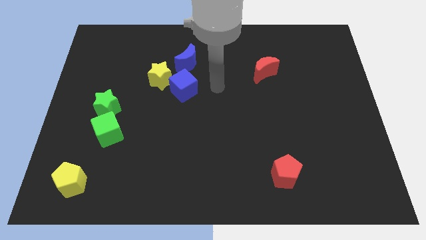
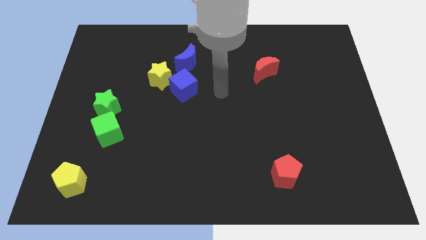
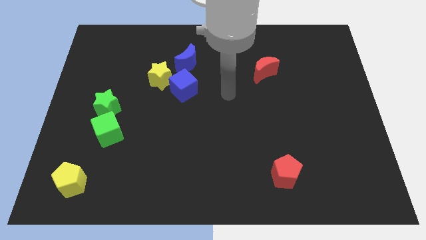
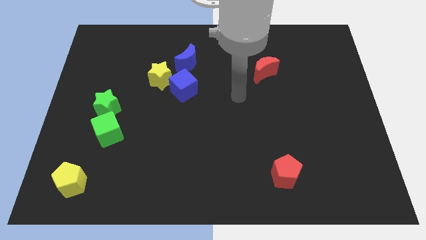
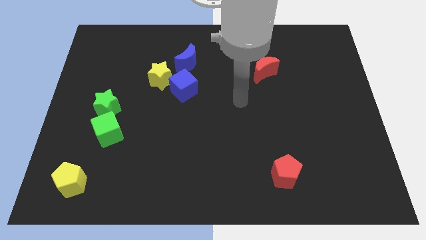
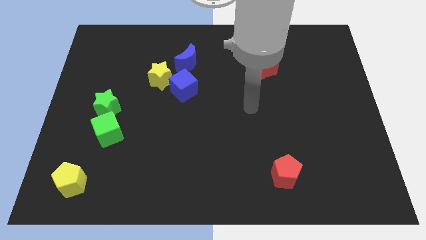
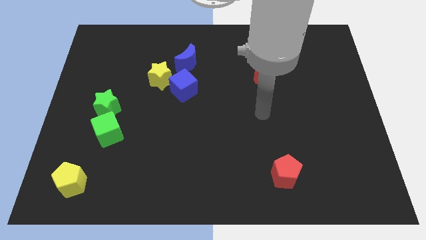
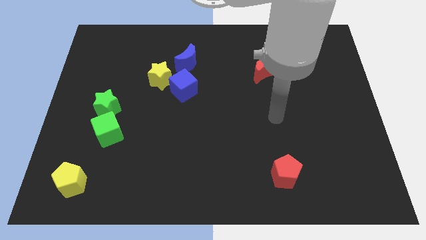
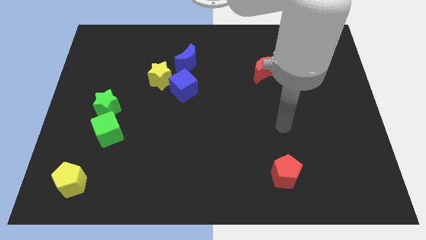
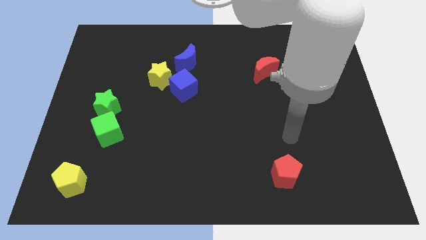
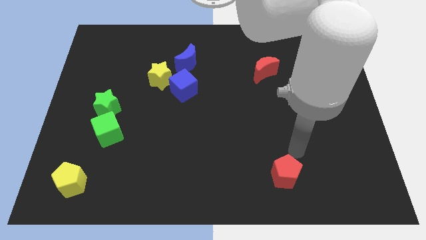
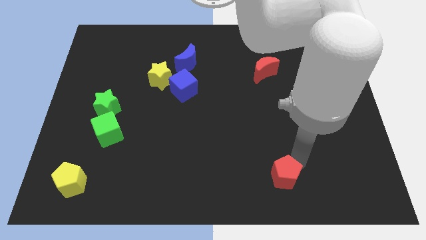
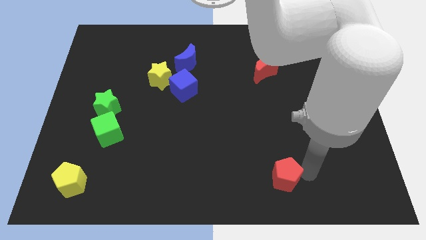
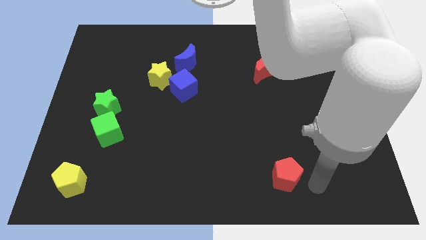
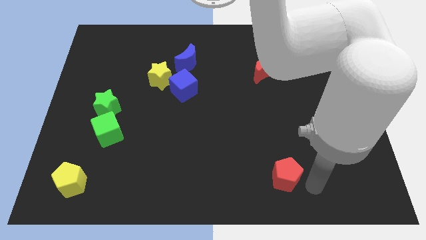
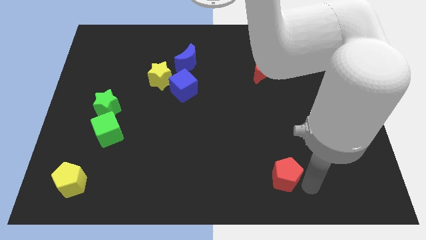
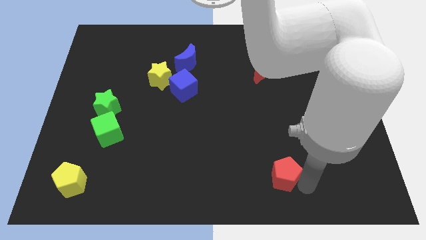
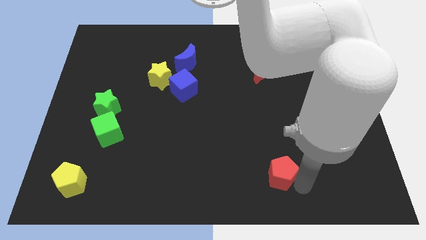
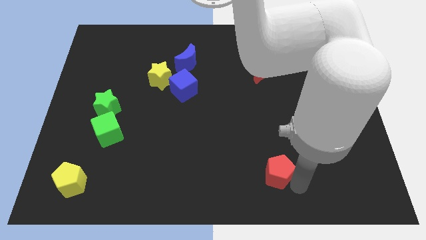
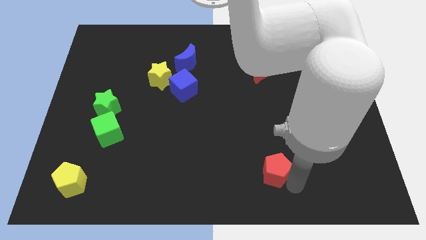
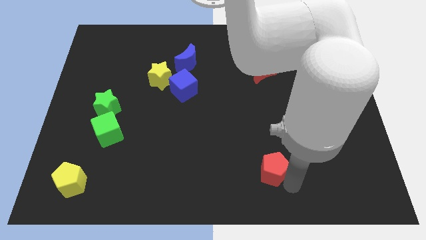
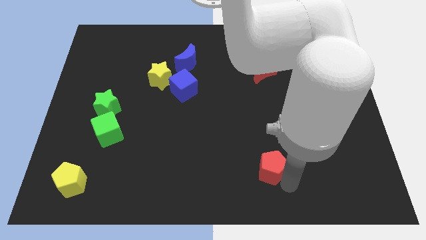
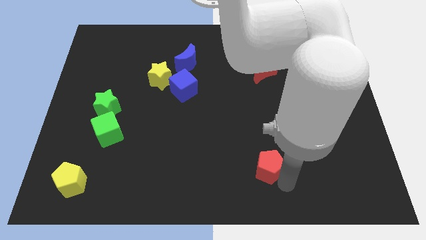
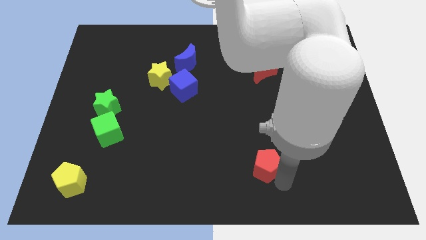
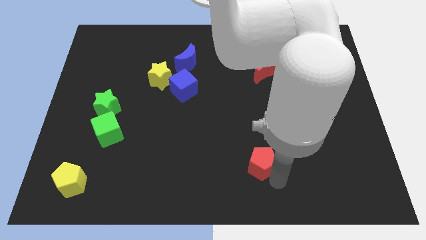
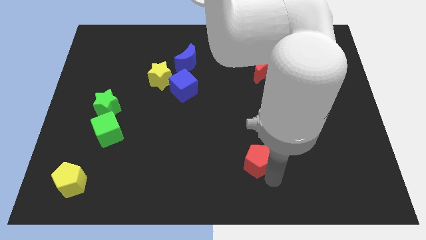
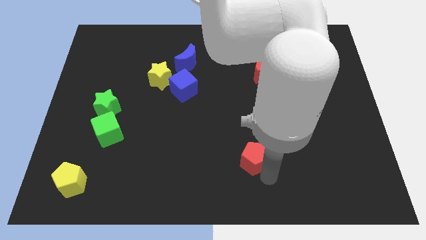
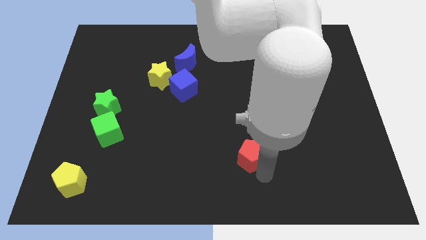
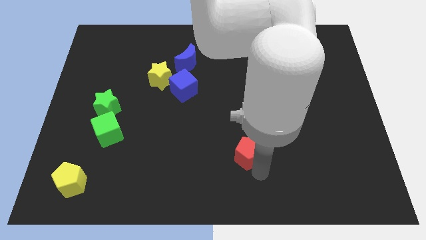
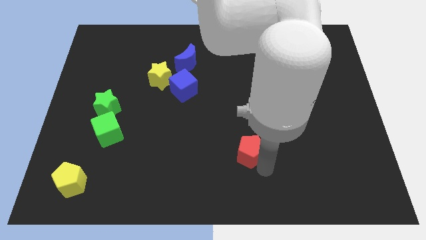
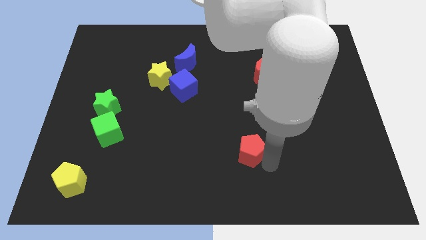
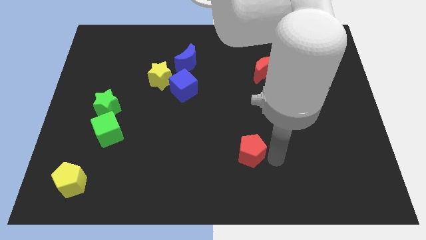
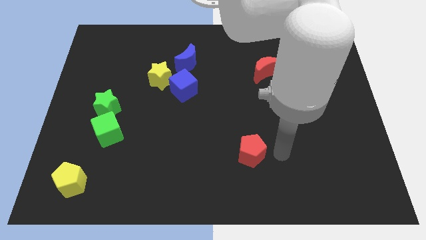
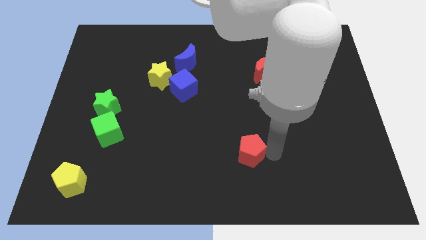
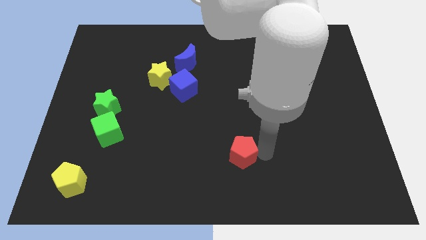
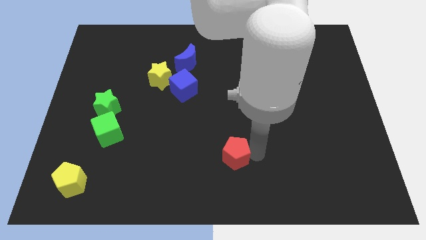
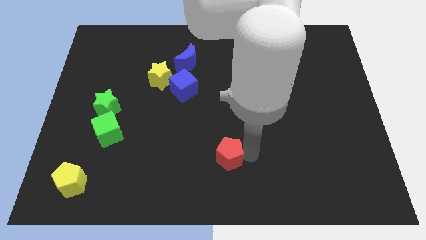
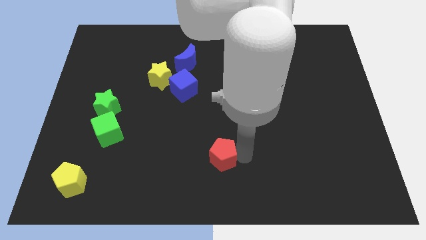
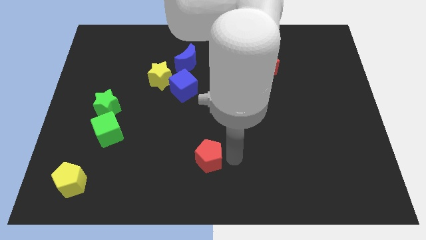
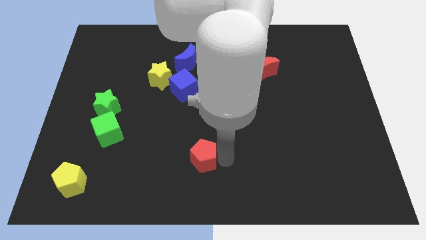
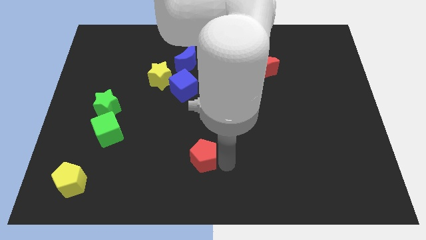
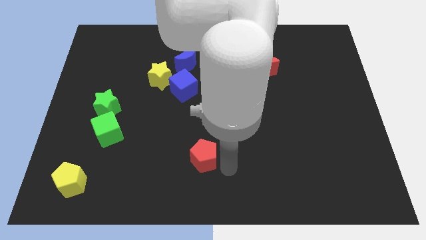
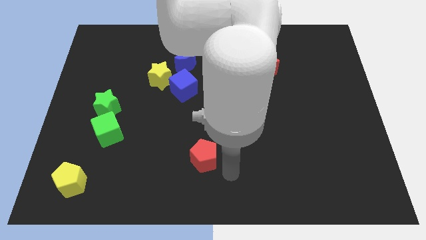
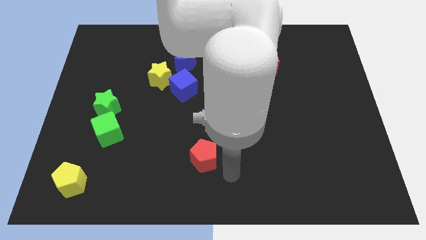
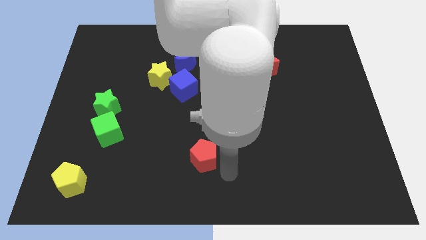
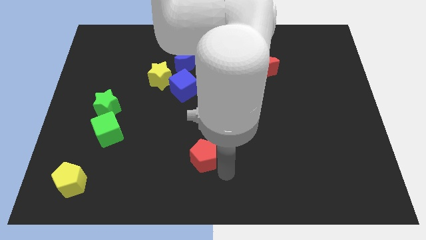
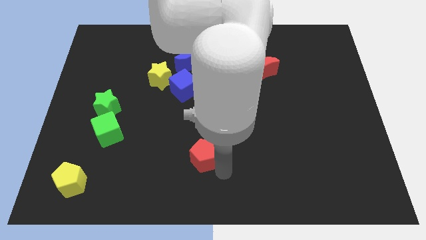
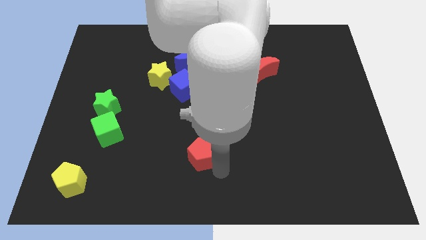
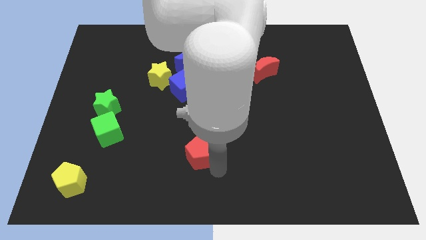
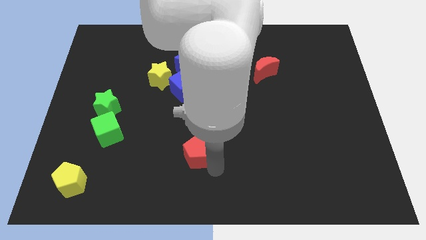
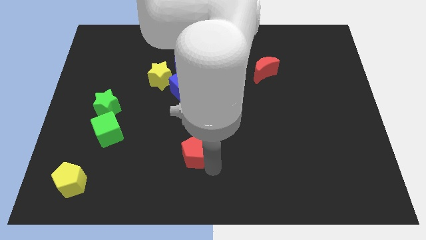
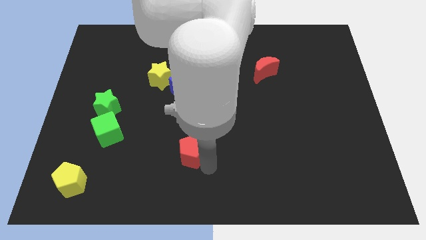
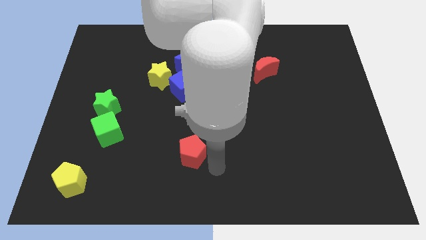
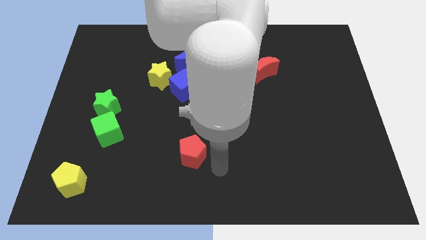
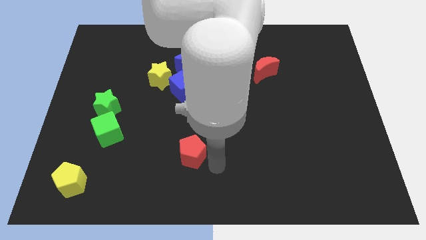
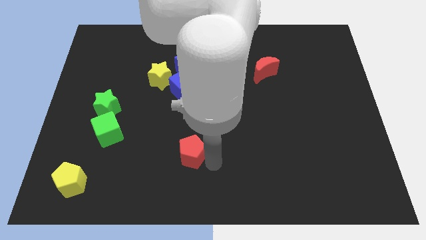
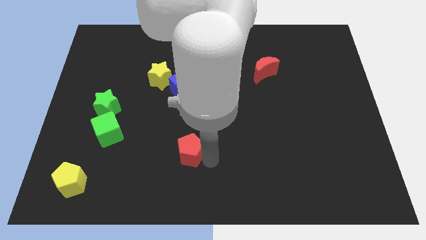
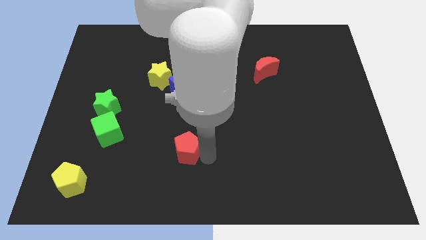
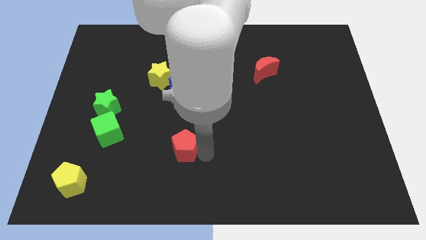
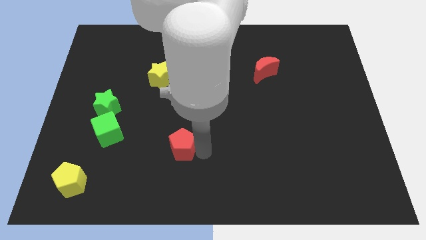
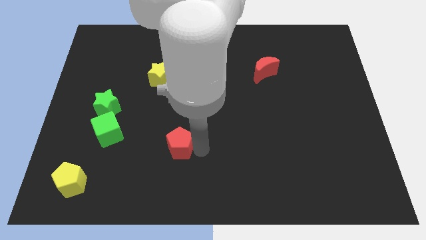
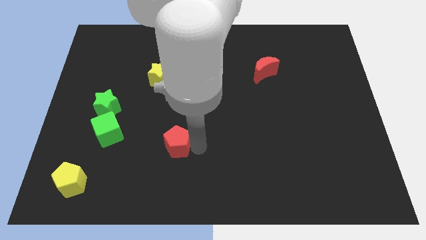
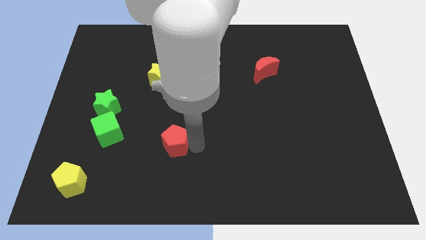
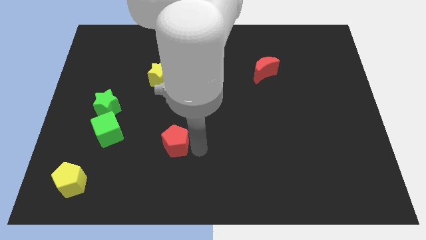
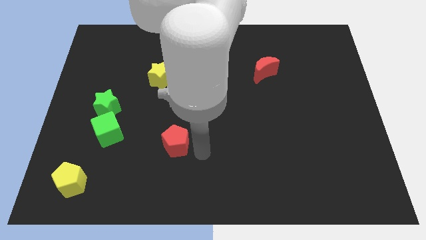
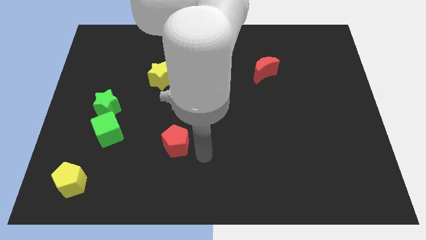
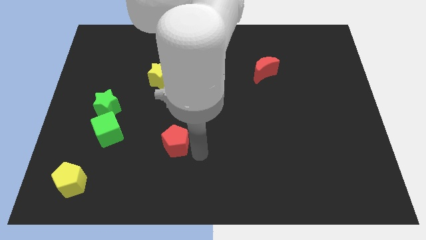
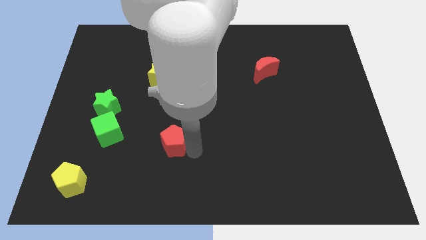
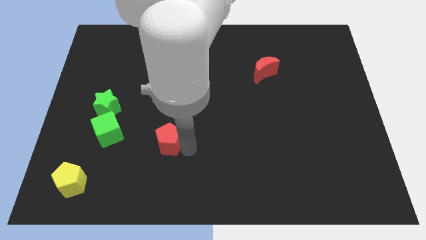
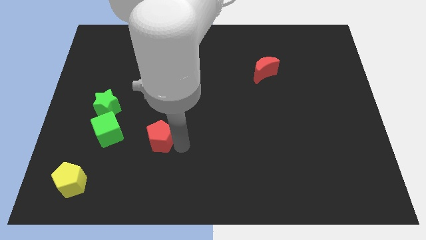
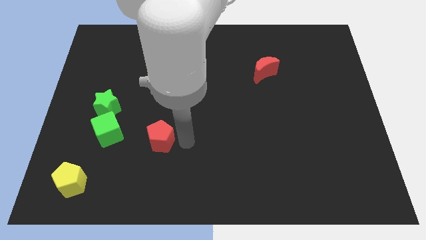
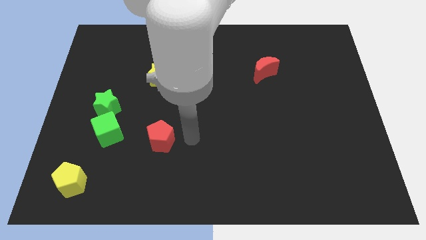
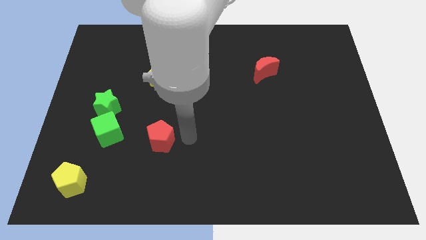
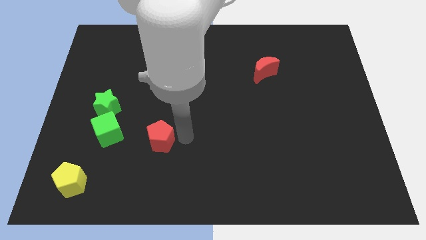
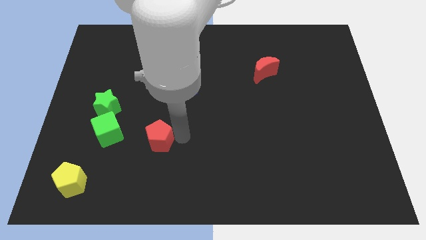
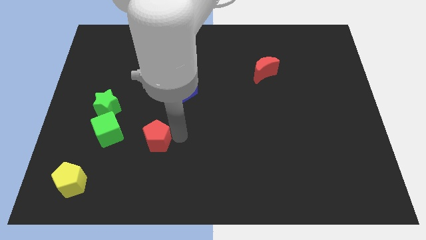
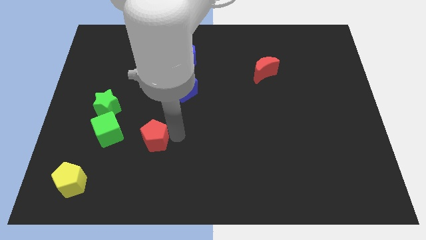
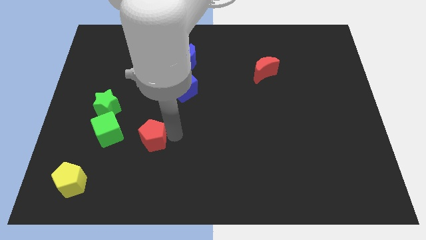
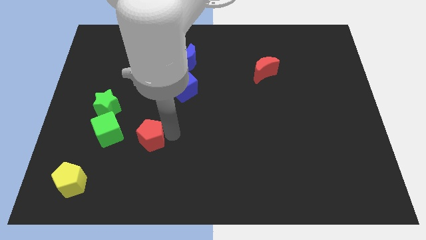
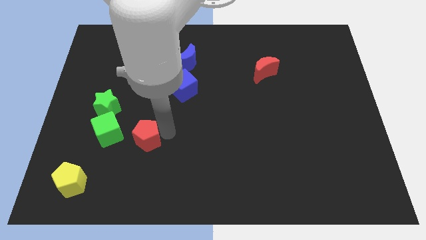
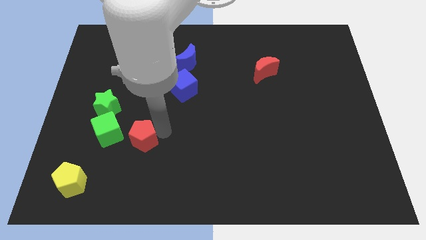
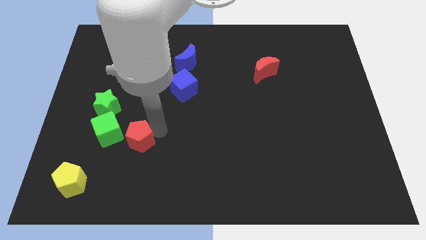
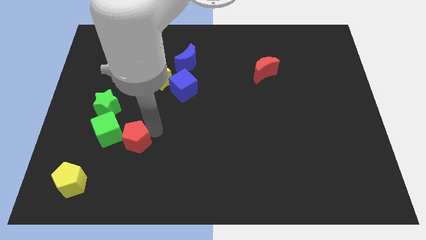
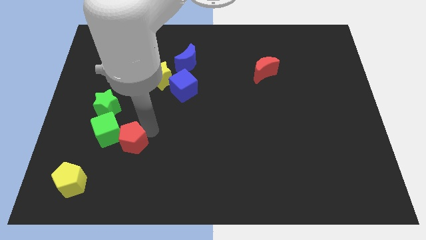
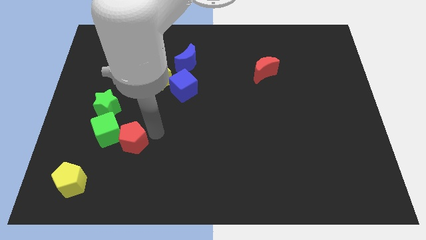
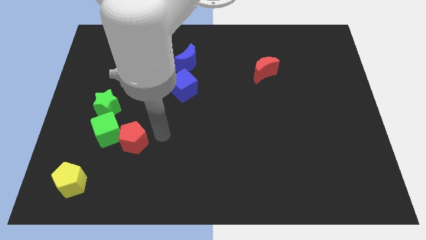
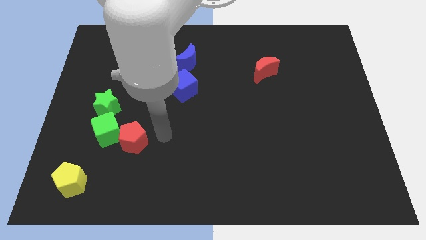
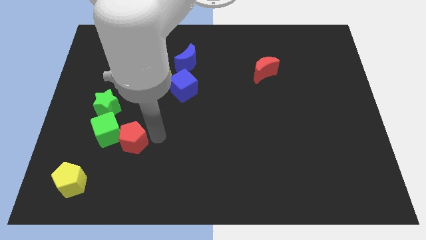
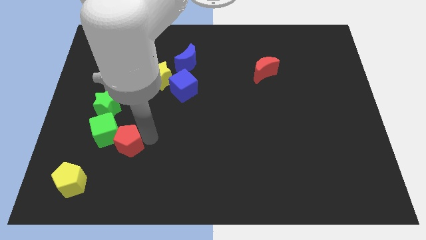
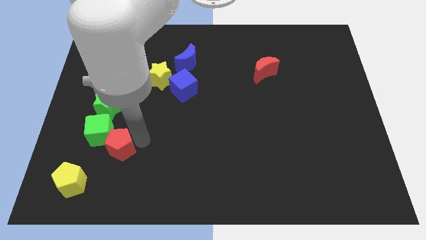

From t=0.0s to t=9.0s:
put the red pentagon to the bottom side of the green star
